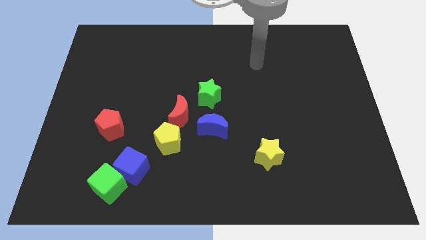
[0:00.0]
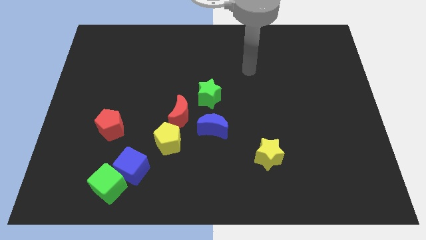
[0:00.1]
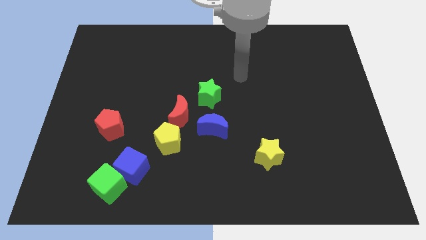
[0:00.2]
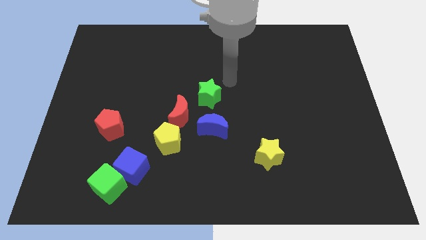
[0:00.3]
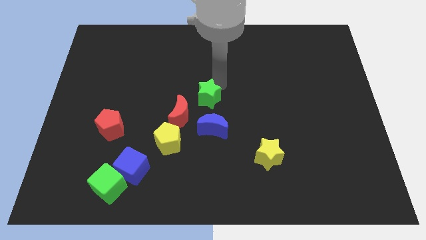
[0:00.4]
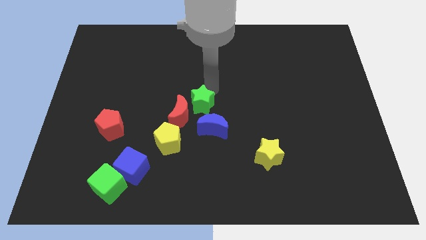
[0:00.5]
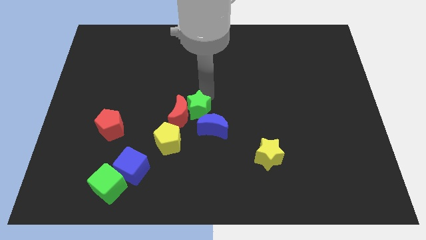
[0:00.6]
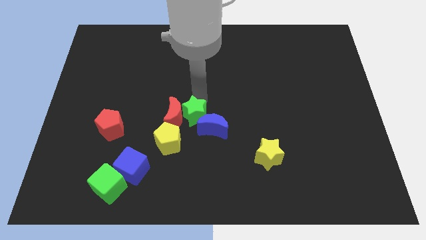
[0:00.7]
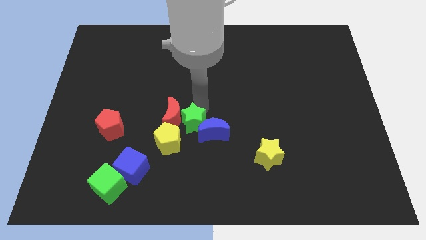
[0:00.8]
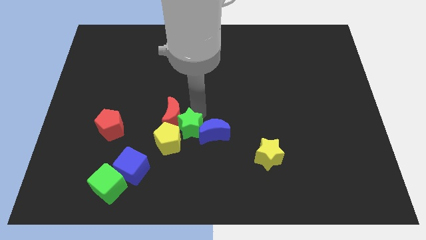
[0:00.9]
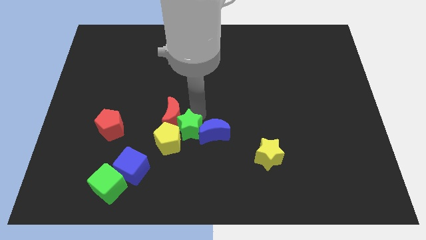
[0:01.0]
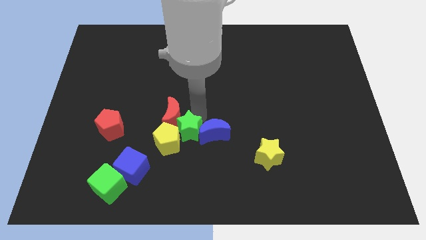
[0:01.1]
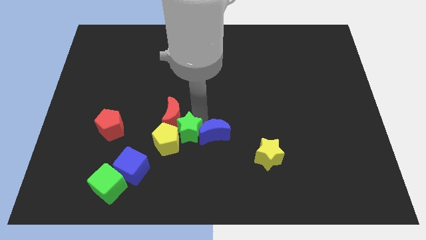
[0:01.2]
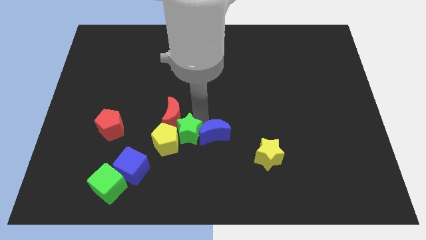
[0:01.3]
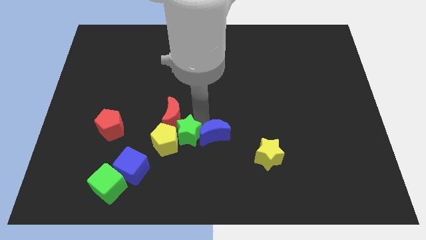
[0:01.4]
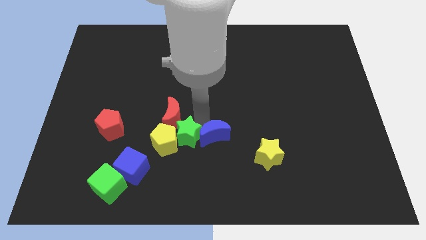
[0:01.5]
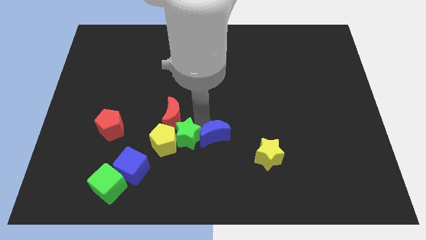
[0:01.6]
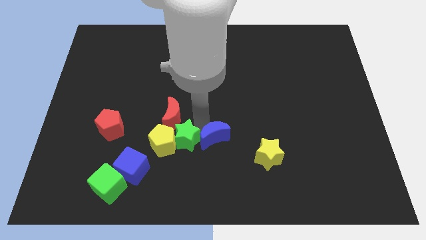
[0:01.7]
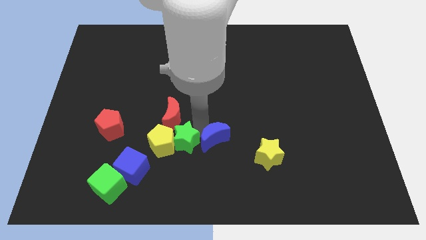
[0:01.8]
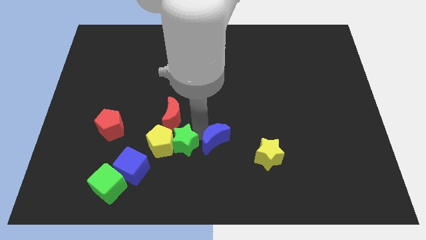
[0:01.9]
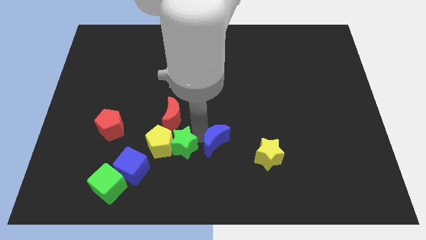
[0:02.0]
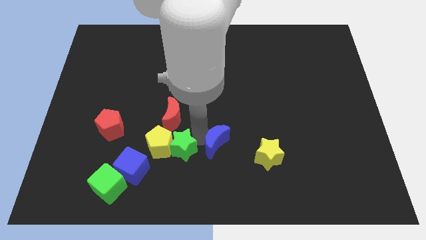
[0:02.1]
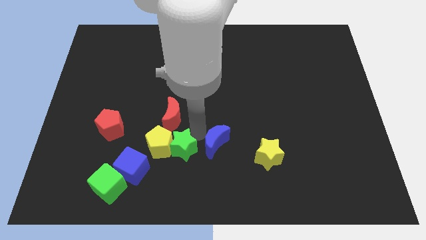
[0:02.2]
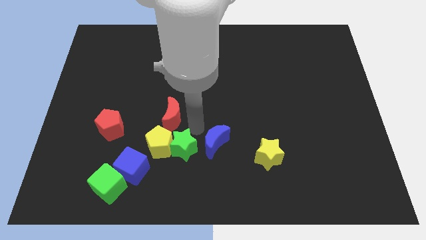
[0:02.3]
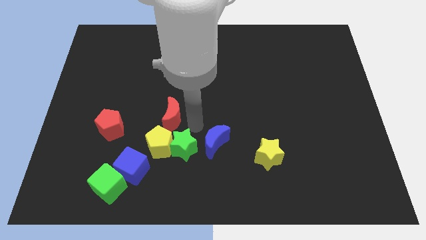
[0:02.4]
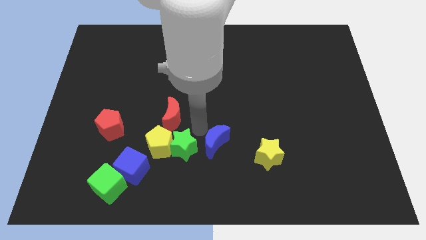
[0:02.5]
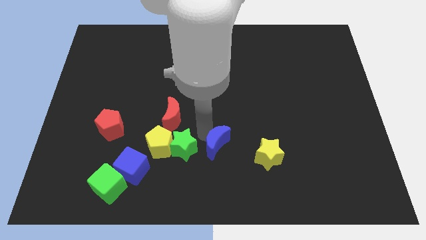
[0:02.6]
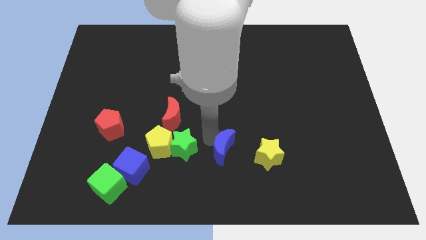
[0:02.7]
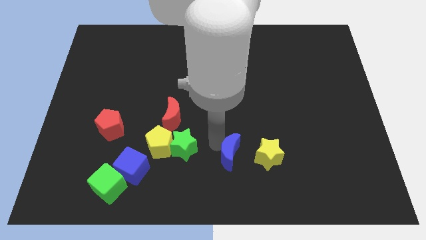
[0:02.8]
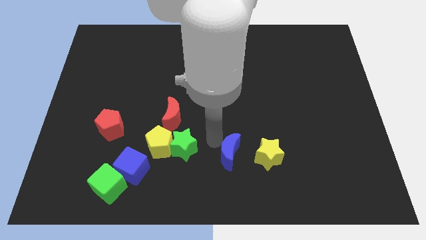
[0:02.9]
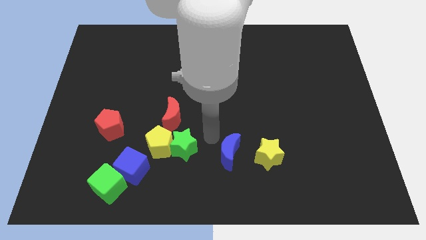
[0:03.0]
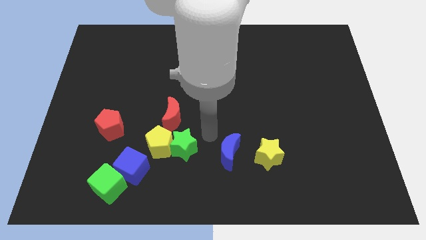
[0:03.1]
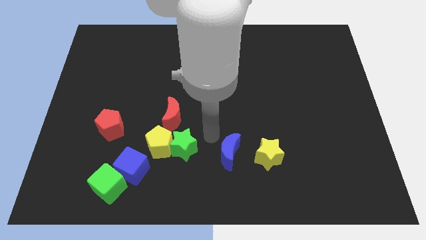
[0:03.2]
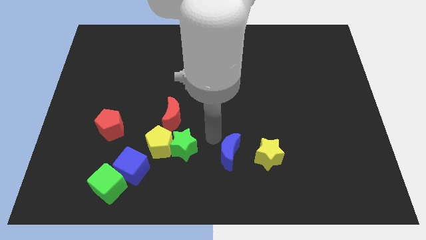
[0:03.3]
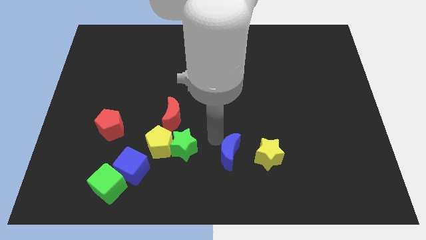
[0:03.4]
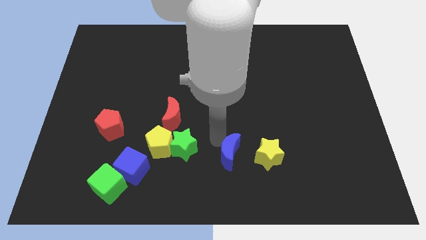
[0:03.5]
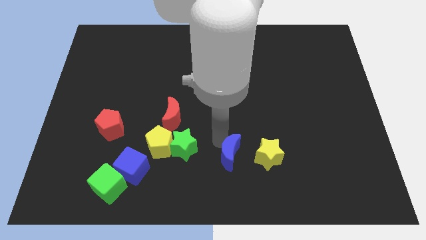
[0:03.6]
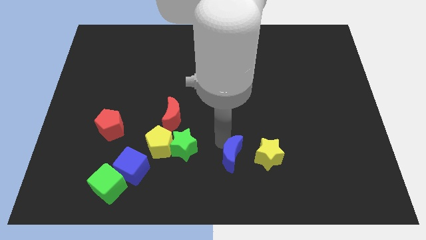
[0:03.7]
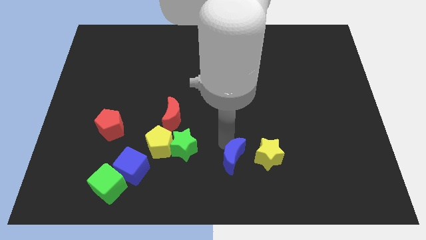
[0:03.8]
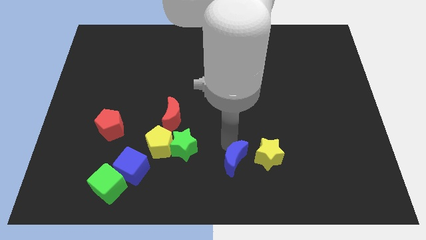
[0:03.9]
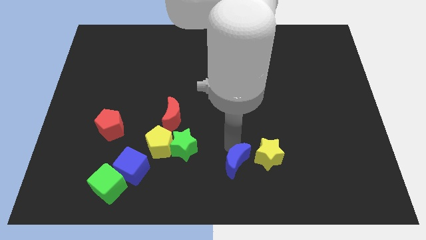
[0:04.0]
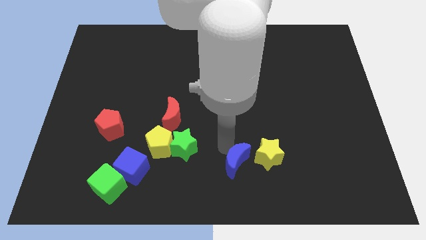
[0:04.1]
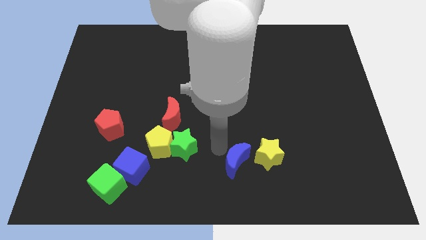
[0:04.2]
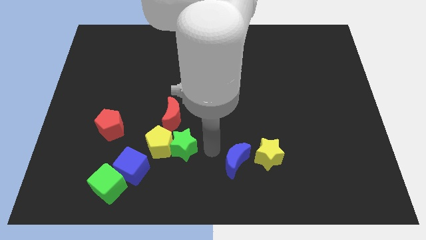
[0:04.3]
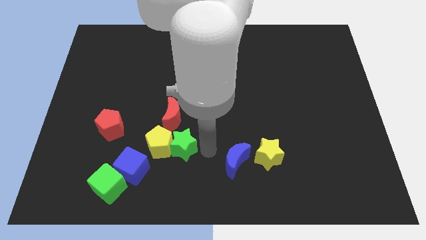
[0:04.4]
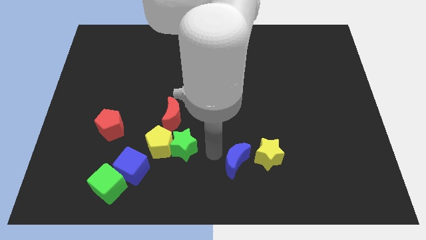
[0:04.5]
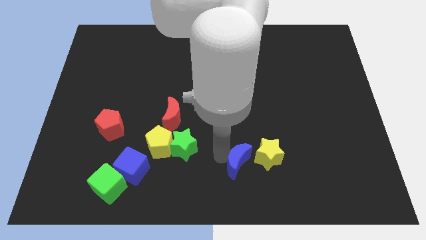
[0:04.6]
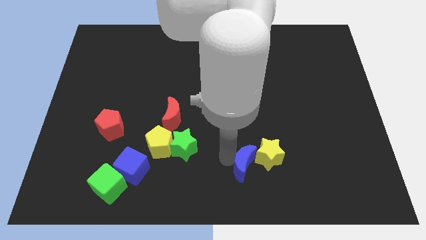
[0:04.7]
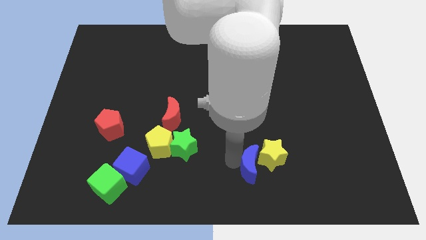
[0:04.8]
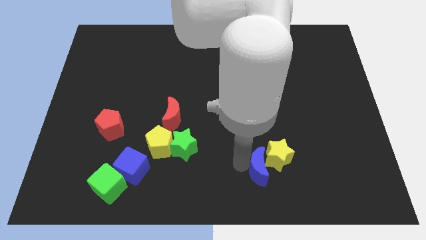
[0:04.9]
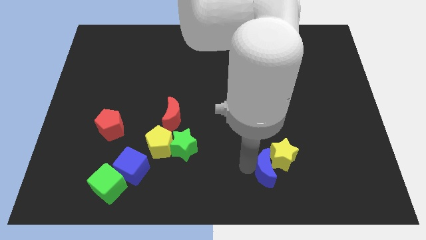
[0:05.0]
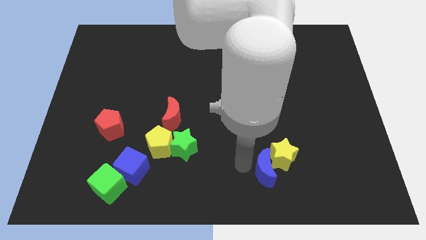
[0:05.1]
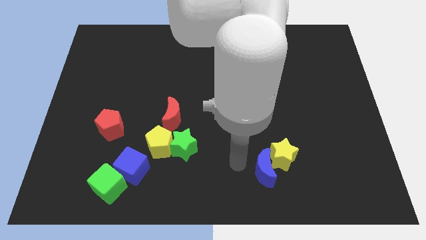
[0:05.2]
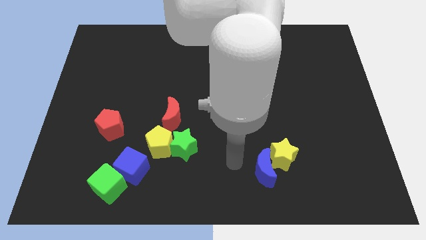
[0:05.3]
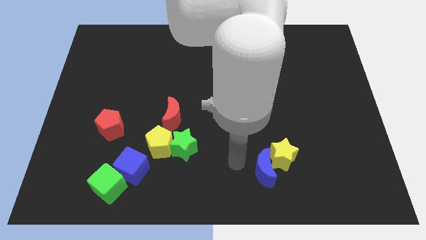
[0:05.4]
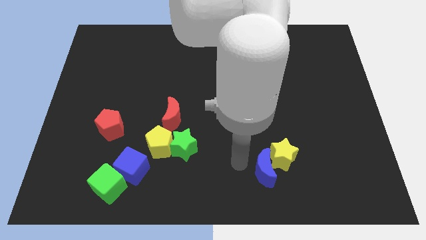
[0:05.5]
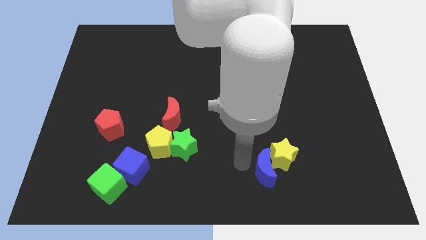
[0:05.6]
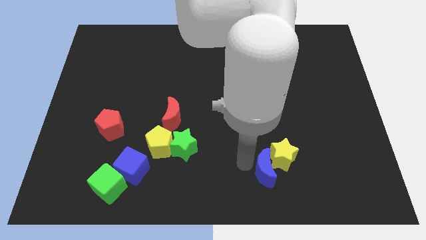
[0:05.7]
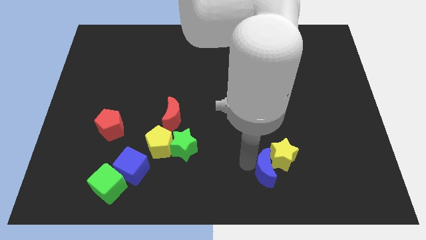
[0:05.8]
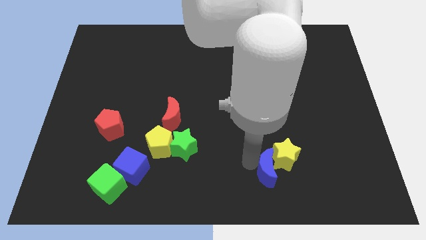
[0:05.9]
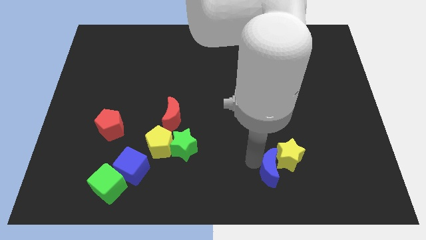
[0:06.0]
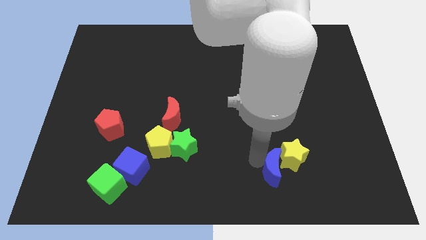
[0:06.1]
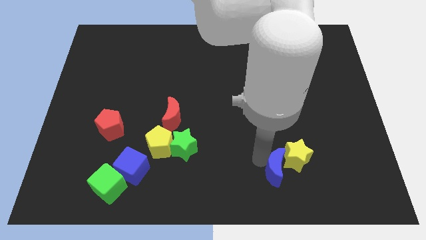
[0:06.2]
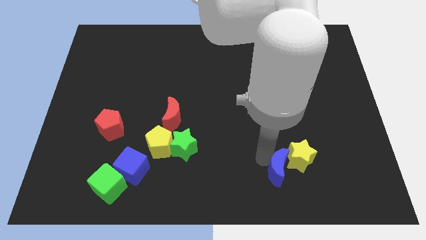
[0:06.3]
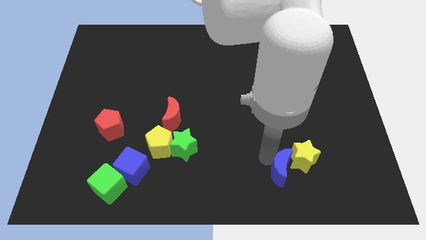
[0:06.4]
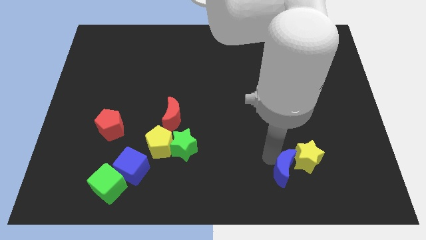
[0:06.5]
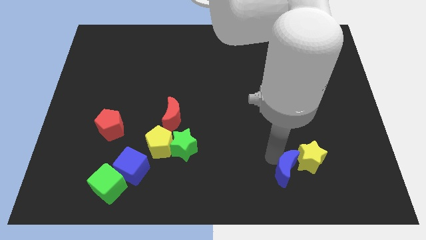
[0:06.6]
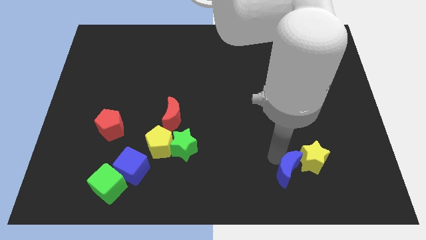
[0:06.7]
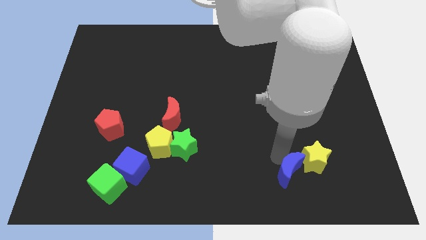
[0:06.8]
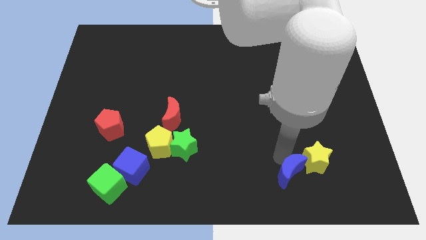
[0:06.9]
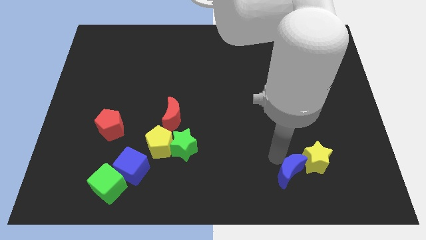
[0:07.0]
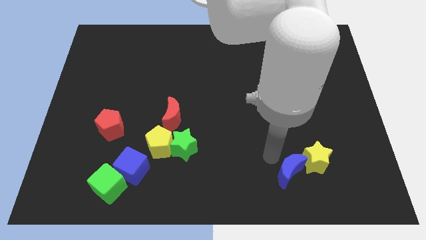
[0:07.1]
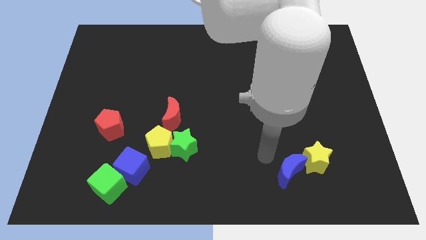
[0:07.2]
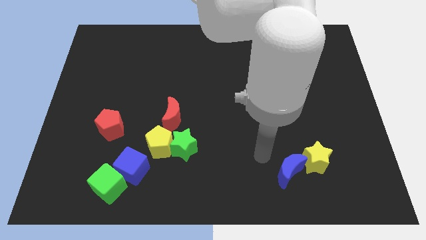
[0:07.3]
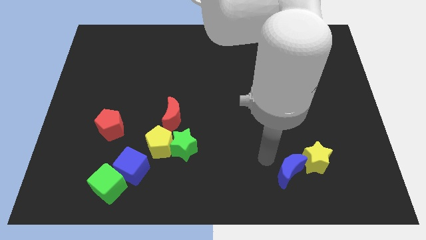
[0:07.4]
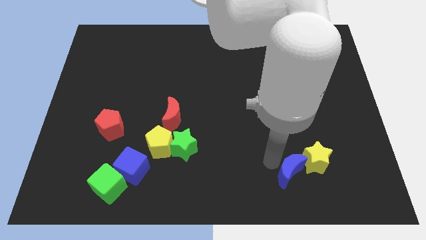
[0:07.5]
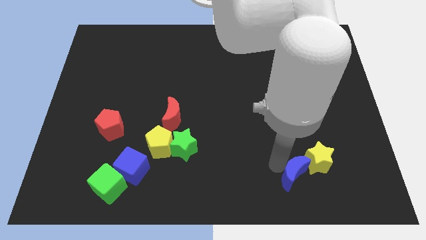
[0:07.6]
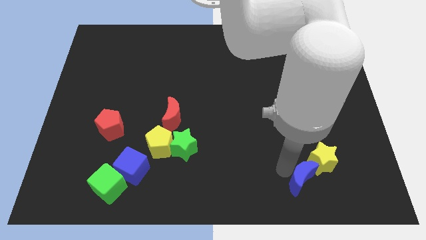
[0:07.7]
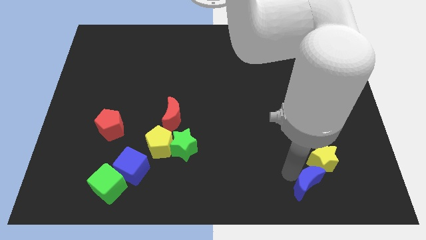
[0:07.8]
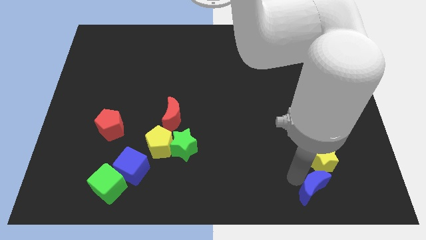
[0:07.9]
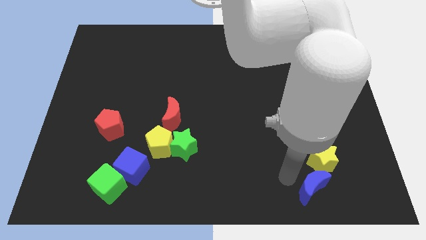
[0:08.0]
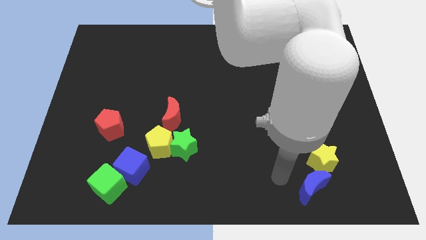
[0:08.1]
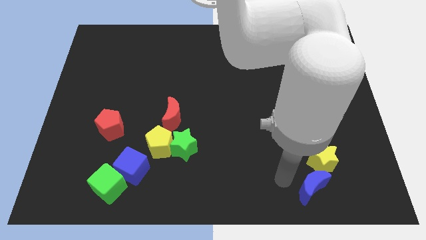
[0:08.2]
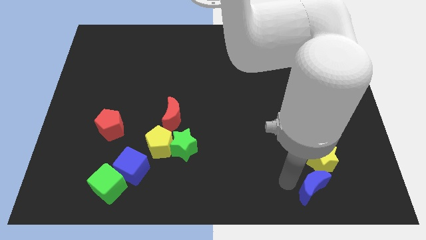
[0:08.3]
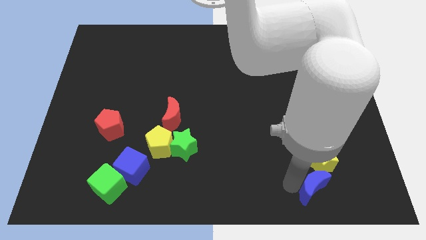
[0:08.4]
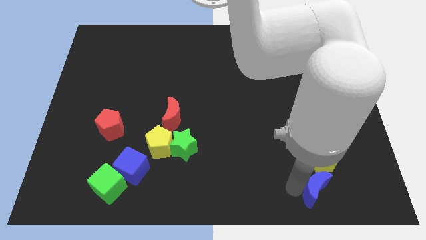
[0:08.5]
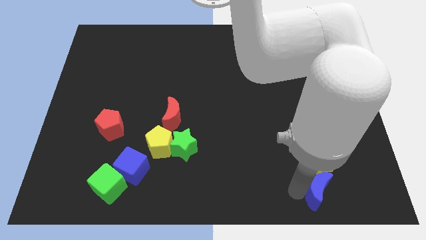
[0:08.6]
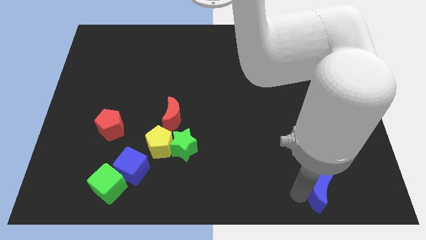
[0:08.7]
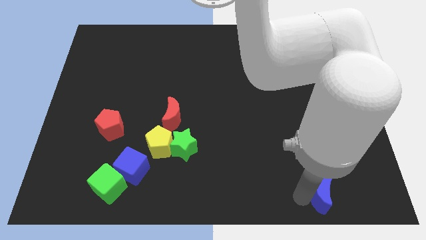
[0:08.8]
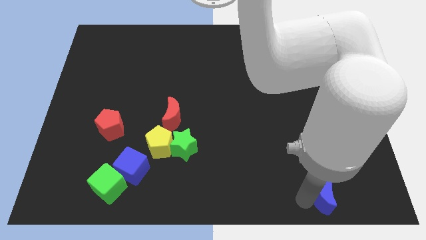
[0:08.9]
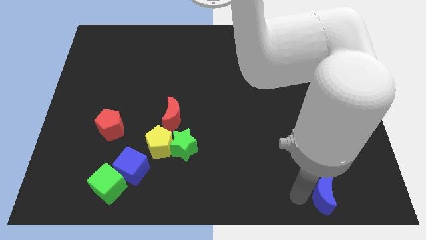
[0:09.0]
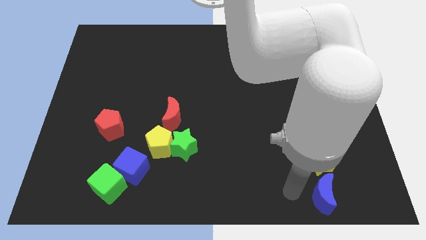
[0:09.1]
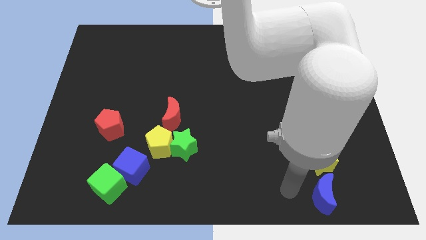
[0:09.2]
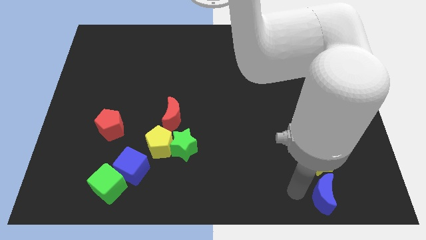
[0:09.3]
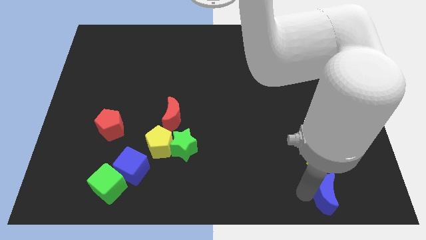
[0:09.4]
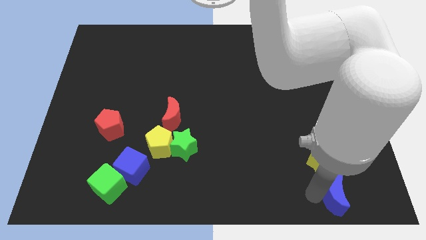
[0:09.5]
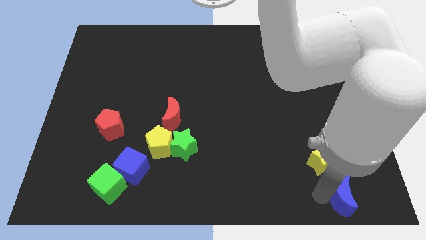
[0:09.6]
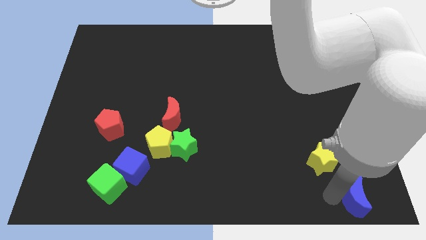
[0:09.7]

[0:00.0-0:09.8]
move the blue moon to the bottom right corner
